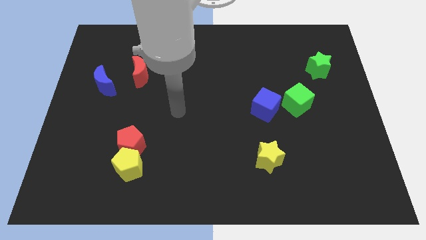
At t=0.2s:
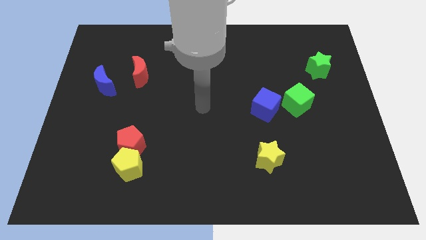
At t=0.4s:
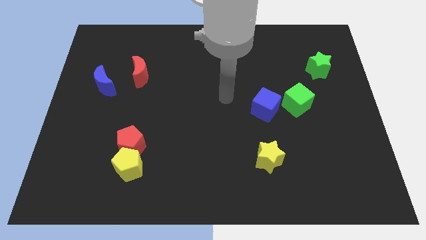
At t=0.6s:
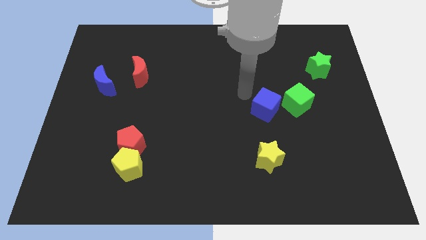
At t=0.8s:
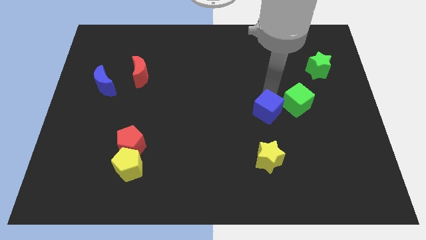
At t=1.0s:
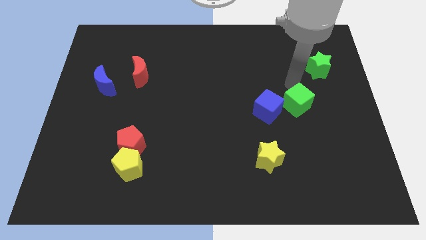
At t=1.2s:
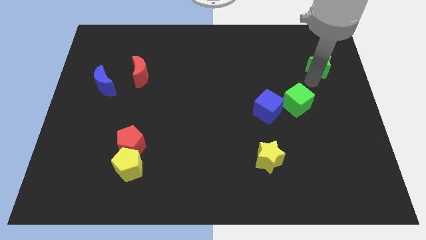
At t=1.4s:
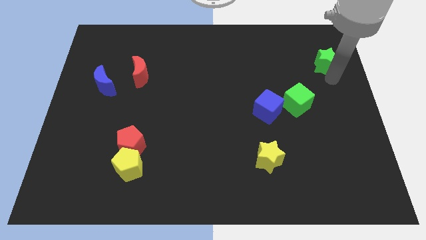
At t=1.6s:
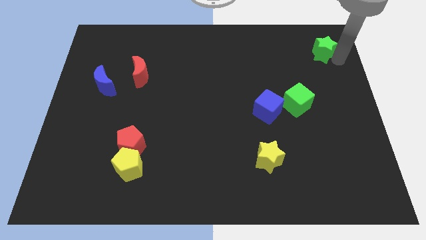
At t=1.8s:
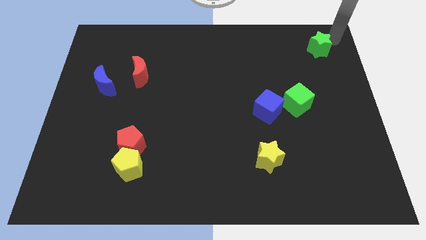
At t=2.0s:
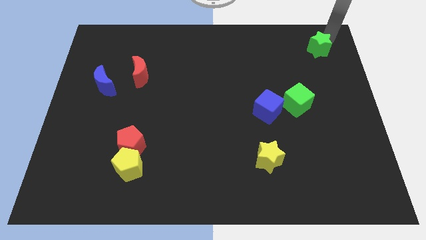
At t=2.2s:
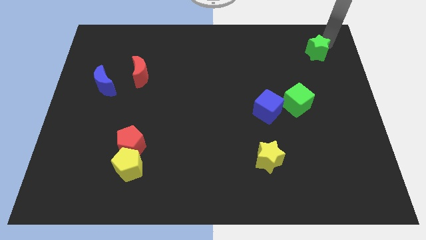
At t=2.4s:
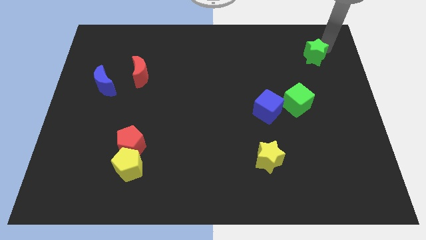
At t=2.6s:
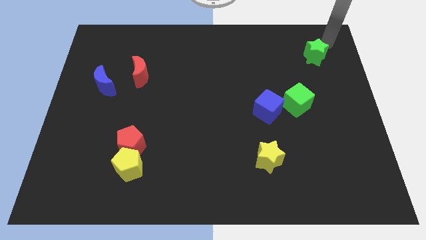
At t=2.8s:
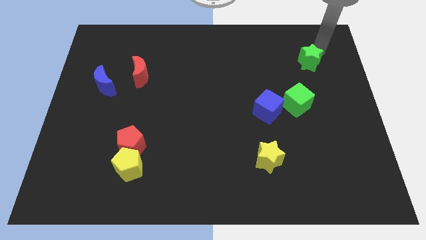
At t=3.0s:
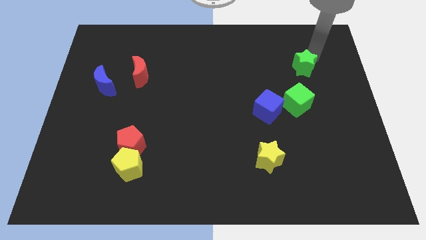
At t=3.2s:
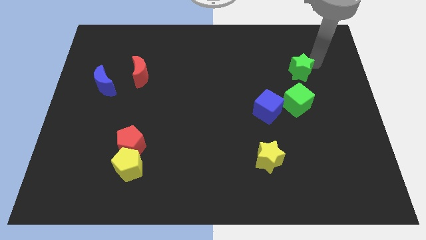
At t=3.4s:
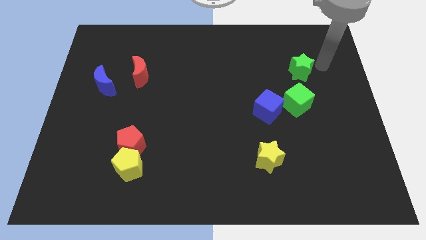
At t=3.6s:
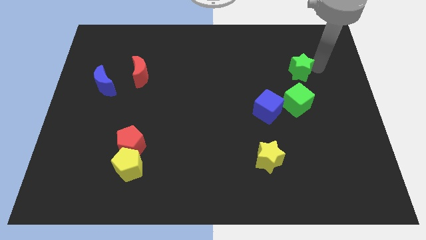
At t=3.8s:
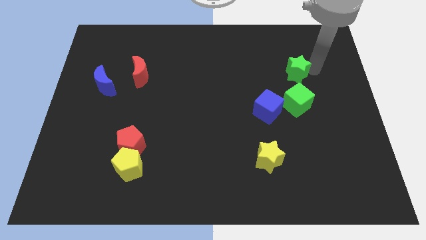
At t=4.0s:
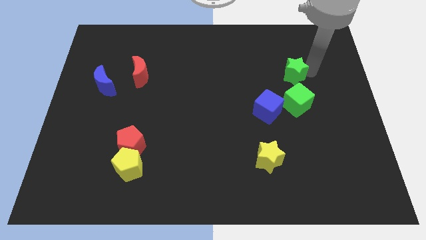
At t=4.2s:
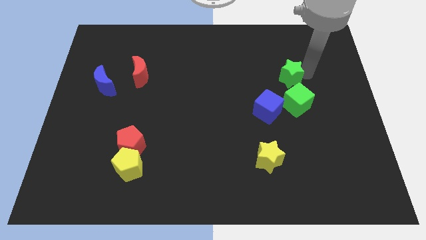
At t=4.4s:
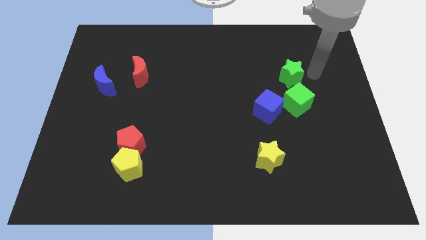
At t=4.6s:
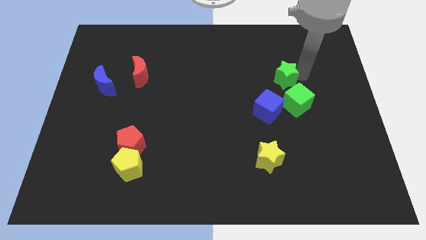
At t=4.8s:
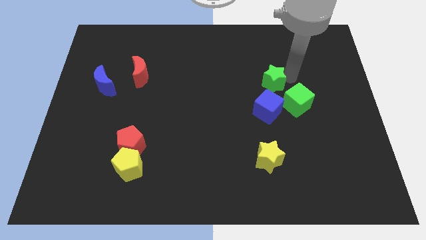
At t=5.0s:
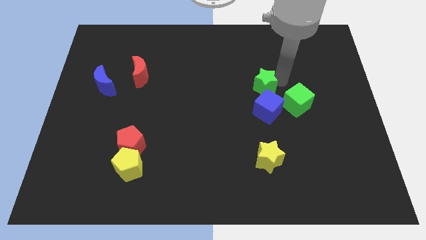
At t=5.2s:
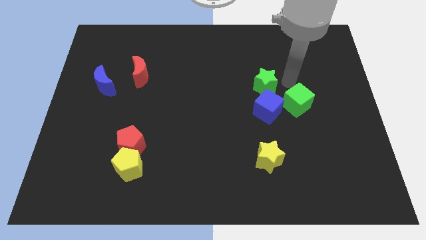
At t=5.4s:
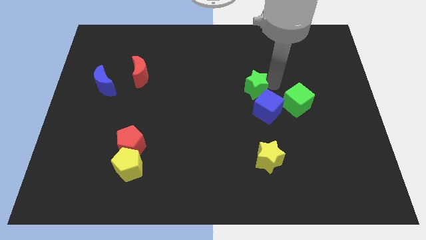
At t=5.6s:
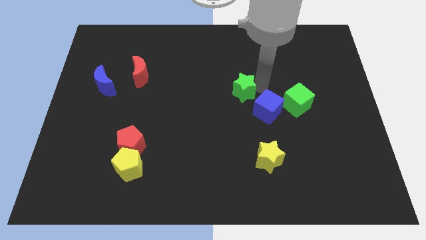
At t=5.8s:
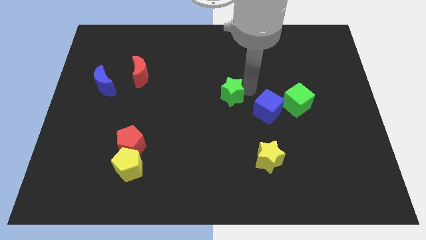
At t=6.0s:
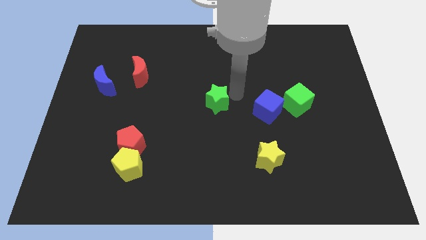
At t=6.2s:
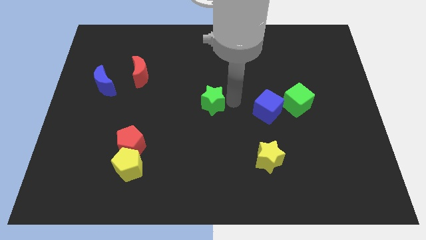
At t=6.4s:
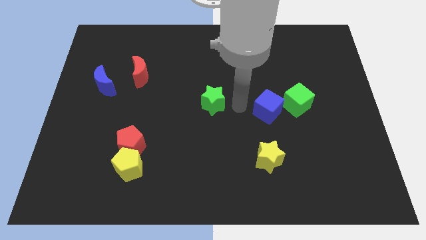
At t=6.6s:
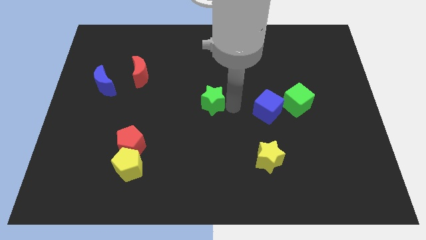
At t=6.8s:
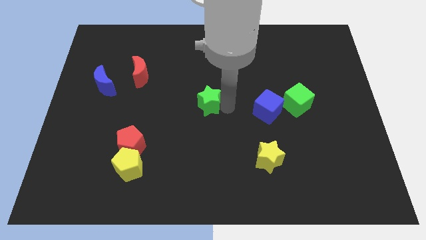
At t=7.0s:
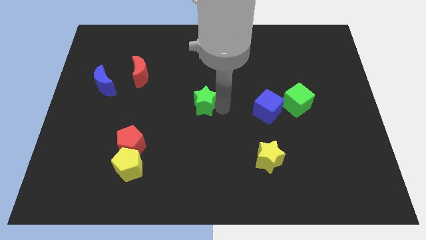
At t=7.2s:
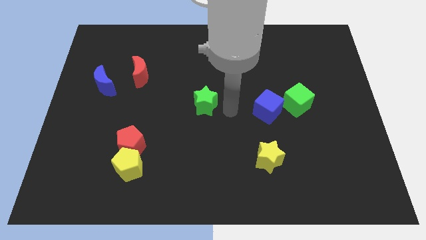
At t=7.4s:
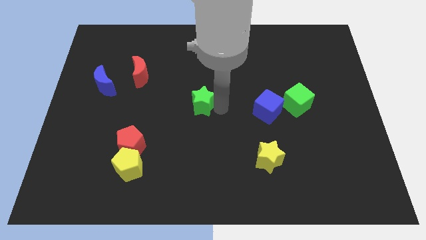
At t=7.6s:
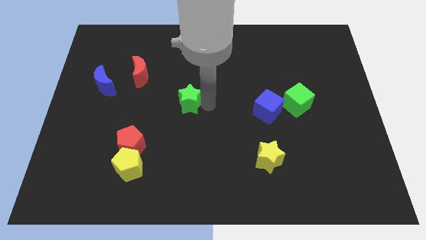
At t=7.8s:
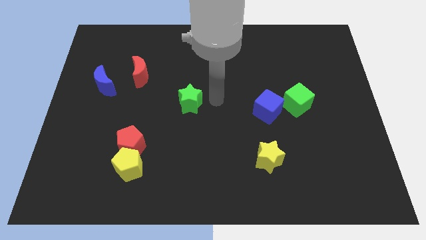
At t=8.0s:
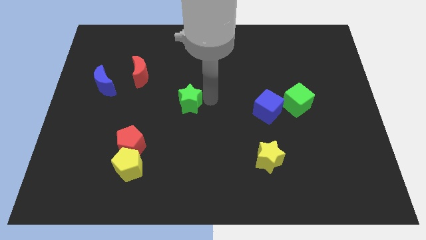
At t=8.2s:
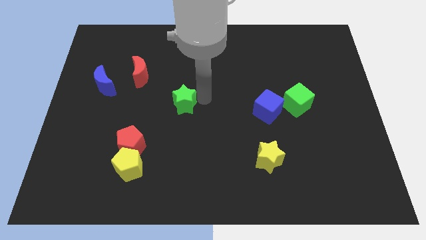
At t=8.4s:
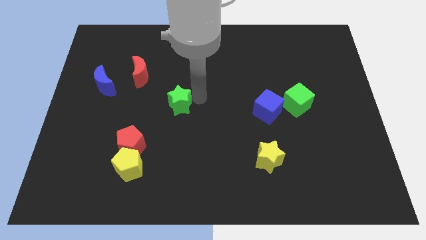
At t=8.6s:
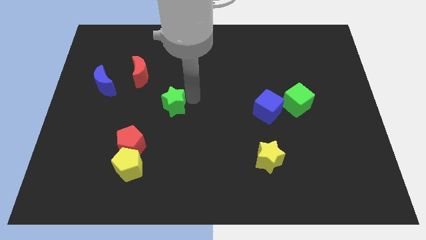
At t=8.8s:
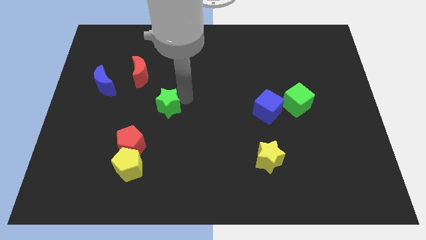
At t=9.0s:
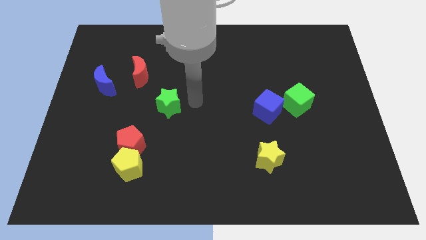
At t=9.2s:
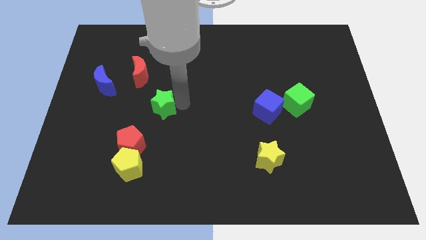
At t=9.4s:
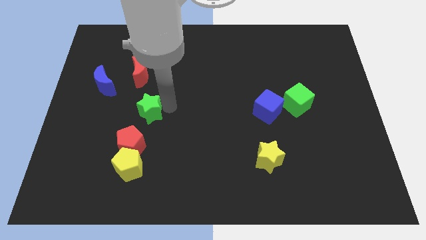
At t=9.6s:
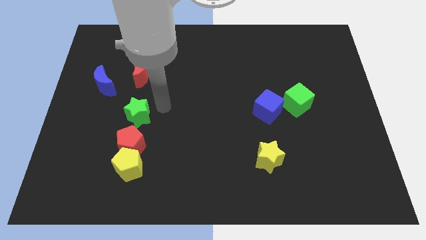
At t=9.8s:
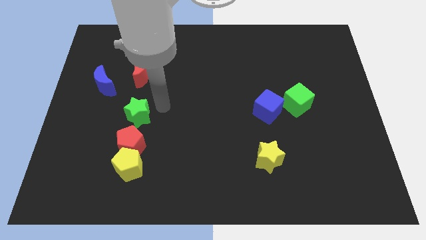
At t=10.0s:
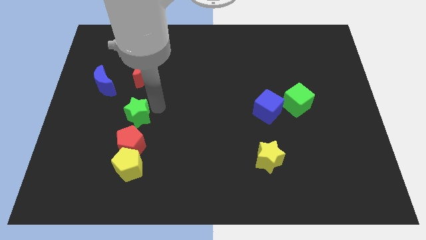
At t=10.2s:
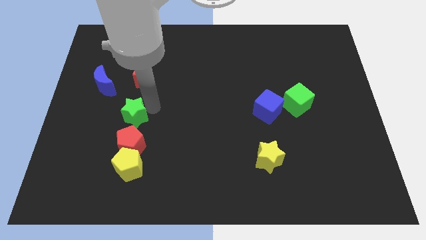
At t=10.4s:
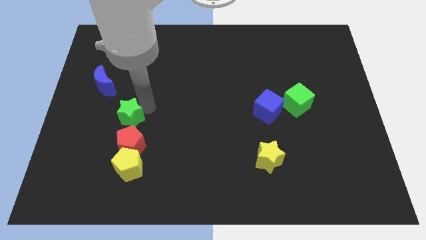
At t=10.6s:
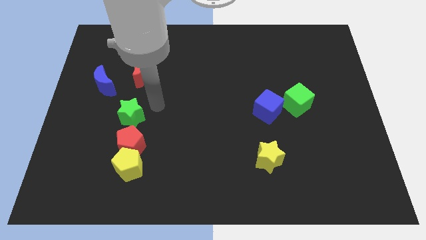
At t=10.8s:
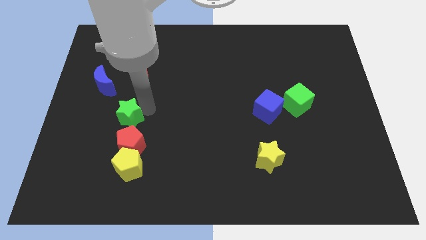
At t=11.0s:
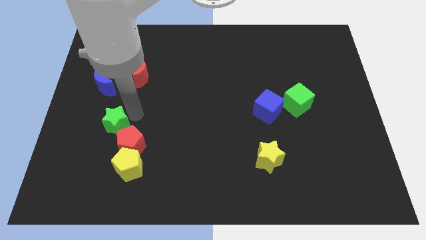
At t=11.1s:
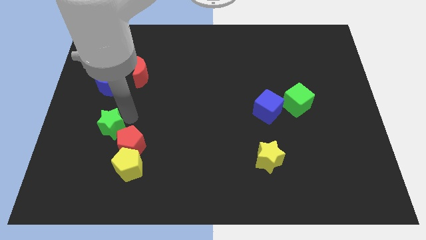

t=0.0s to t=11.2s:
move the green star left of the red pentagon

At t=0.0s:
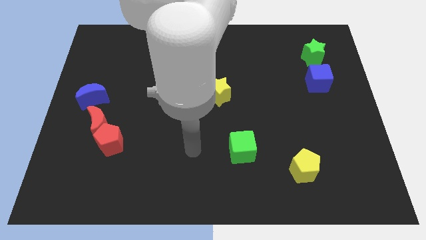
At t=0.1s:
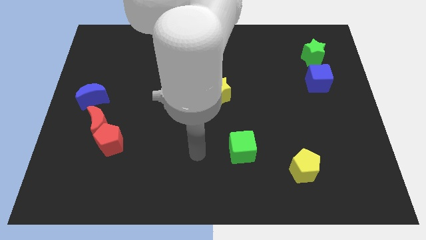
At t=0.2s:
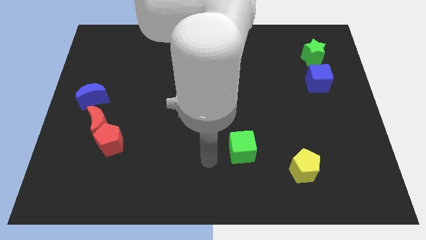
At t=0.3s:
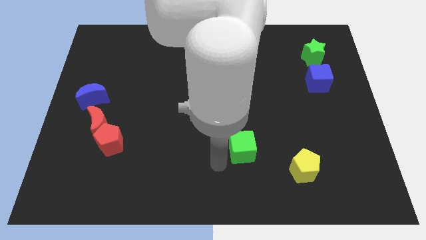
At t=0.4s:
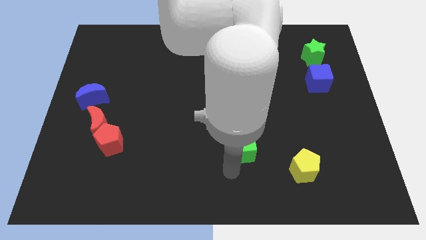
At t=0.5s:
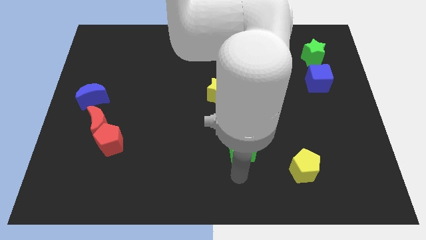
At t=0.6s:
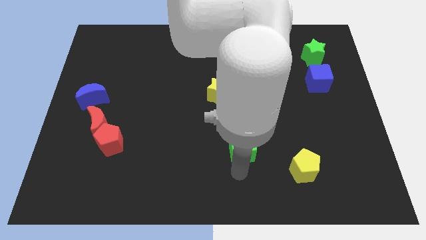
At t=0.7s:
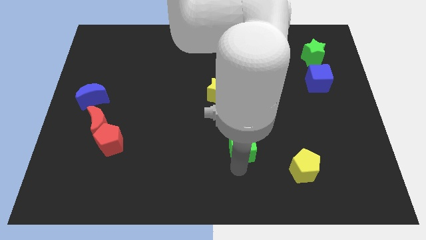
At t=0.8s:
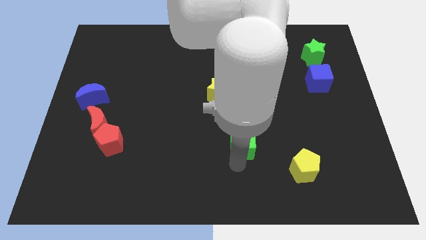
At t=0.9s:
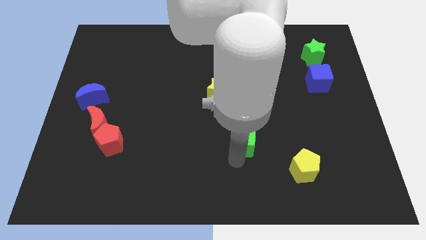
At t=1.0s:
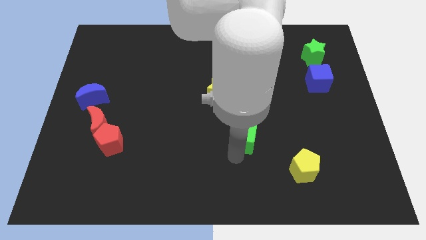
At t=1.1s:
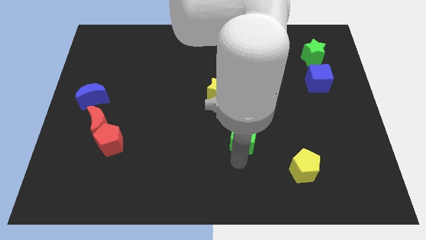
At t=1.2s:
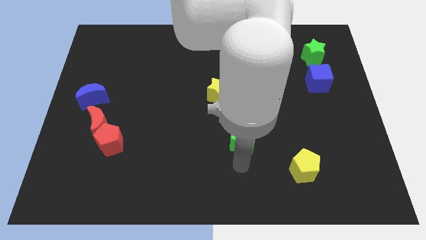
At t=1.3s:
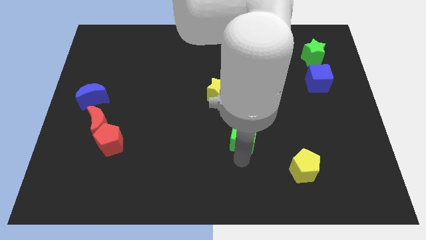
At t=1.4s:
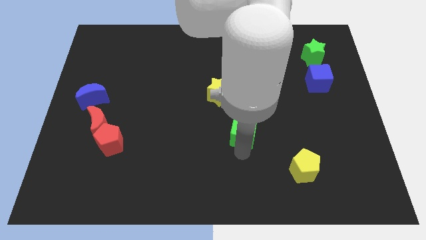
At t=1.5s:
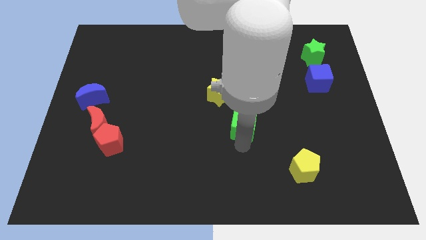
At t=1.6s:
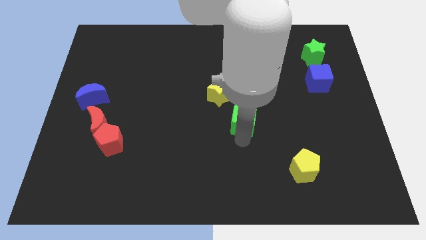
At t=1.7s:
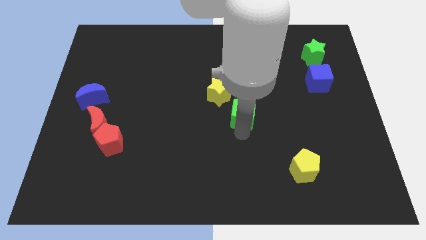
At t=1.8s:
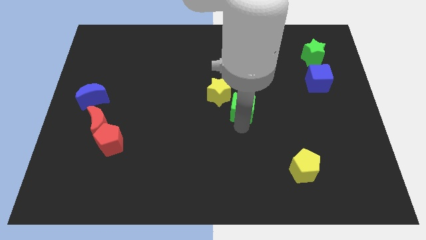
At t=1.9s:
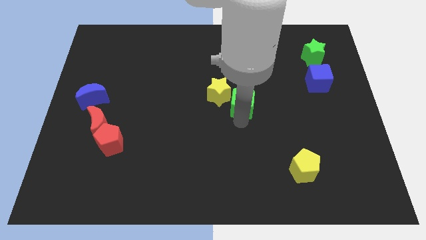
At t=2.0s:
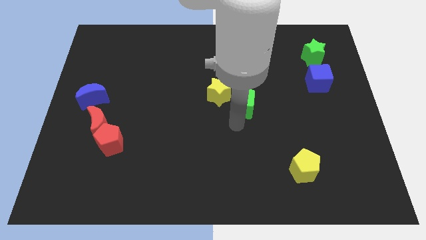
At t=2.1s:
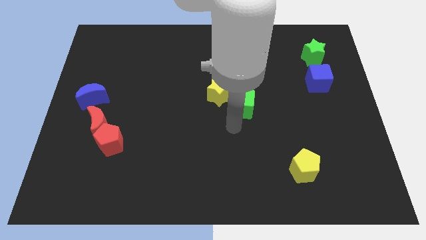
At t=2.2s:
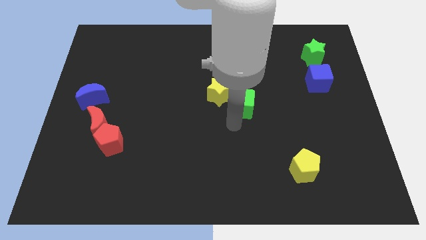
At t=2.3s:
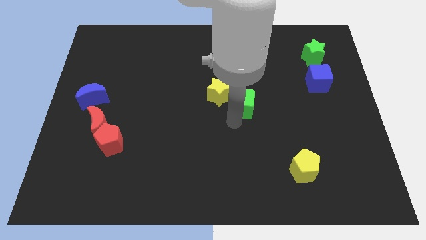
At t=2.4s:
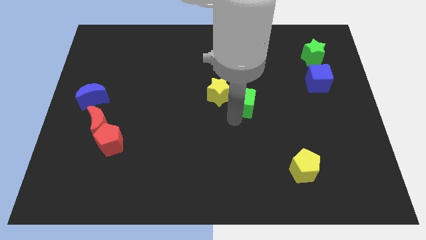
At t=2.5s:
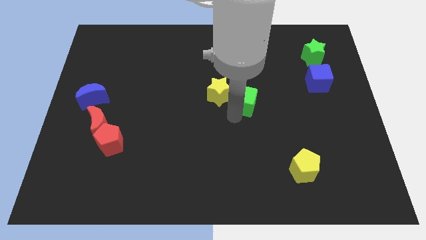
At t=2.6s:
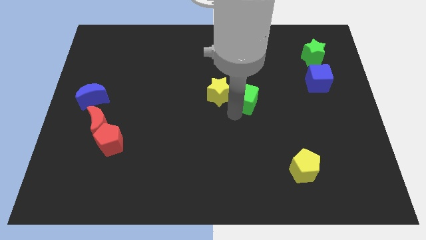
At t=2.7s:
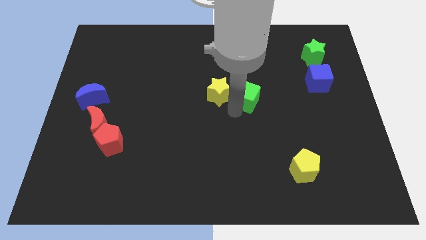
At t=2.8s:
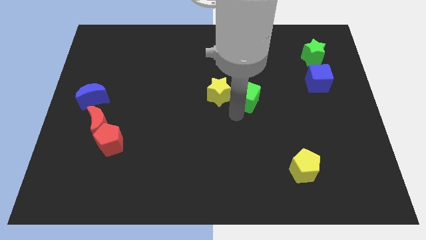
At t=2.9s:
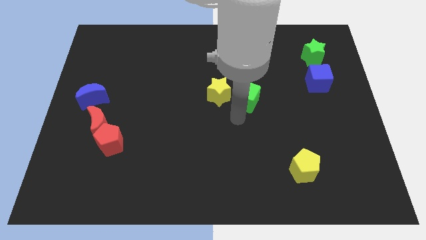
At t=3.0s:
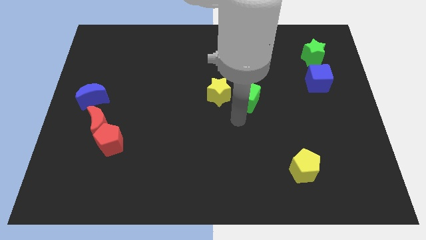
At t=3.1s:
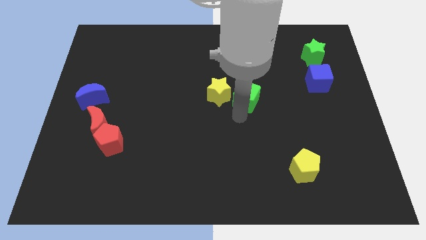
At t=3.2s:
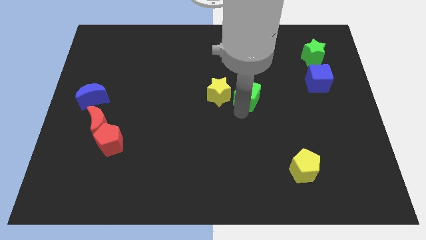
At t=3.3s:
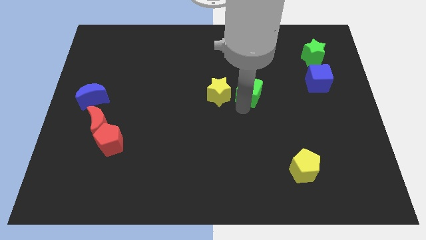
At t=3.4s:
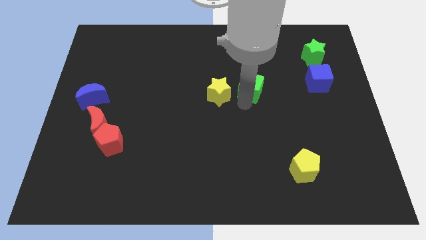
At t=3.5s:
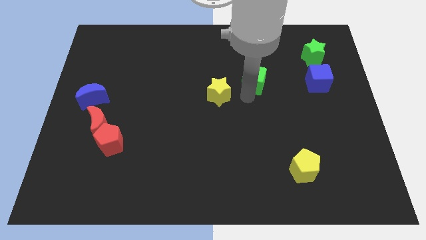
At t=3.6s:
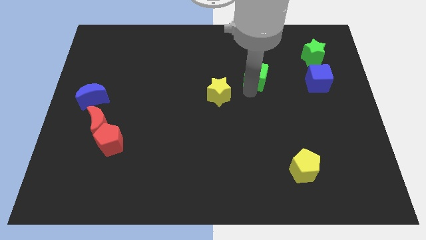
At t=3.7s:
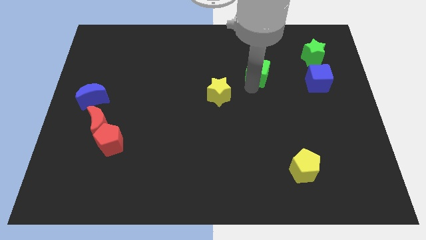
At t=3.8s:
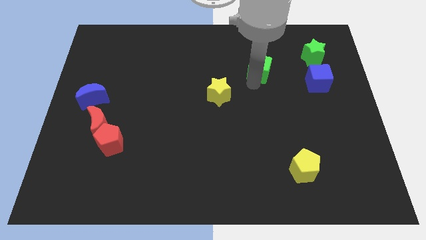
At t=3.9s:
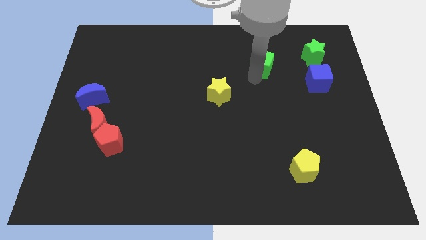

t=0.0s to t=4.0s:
push the green cube to the left of the green star
